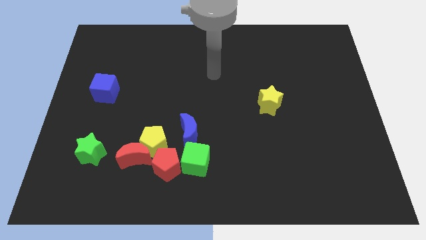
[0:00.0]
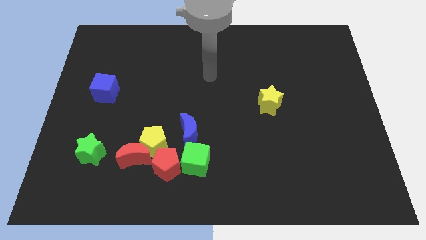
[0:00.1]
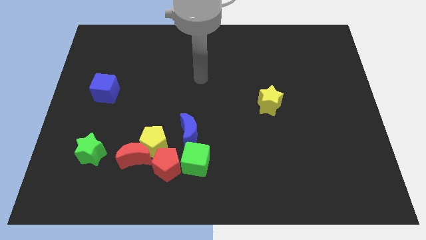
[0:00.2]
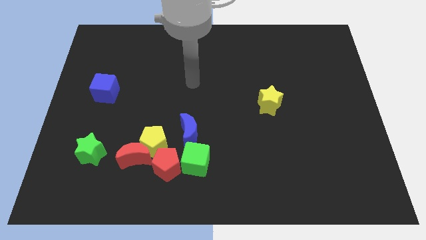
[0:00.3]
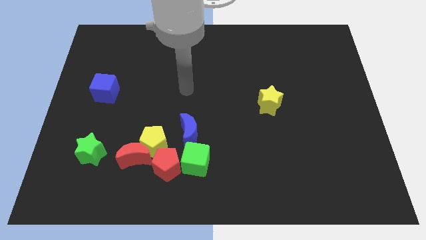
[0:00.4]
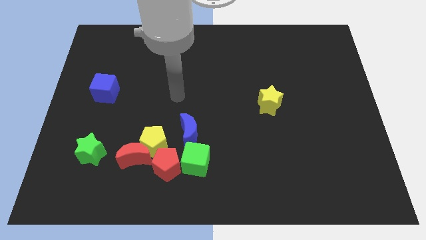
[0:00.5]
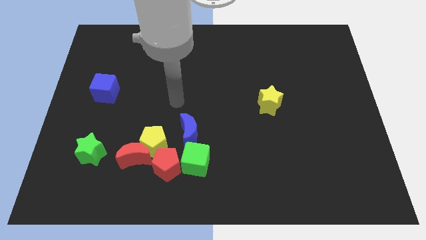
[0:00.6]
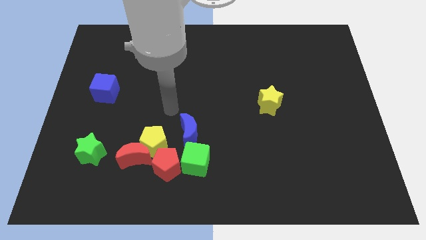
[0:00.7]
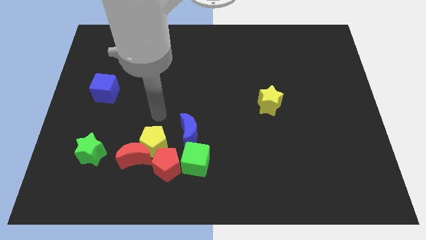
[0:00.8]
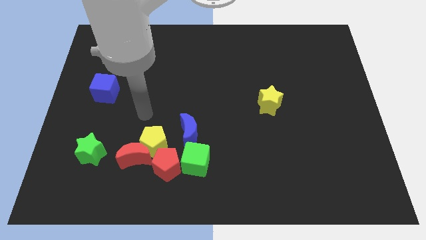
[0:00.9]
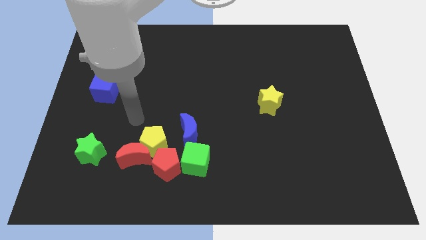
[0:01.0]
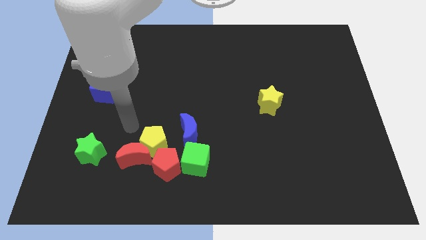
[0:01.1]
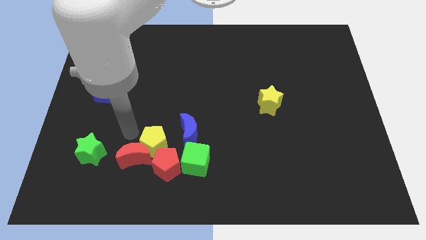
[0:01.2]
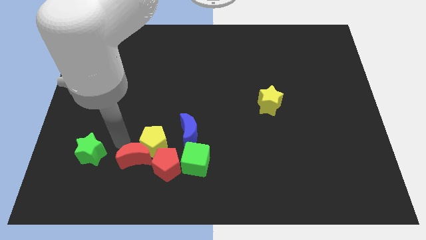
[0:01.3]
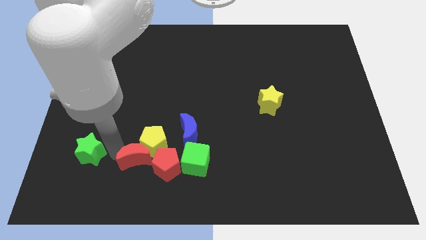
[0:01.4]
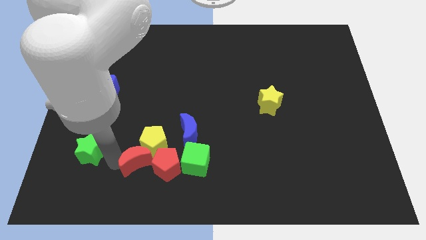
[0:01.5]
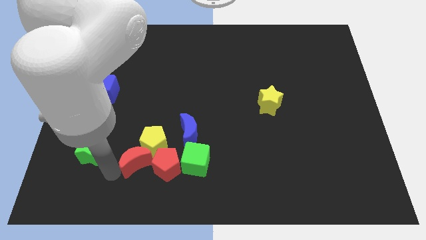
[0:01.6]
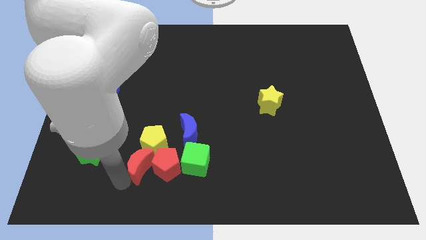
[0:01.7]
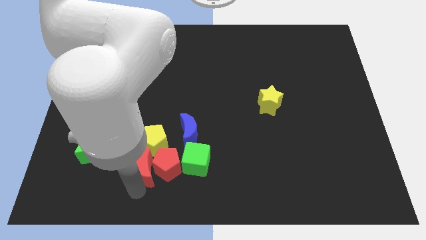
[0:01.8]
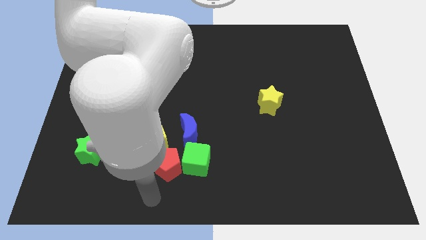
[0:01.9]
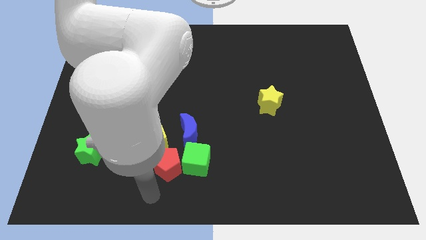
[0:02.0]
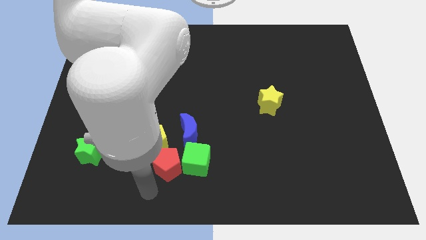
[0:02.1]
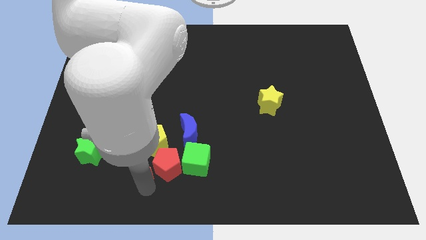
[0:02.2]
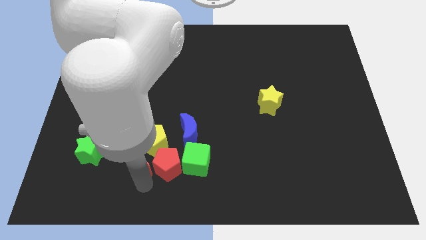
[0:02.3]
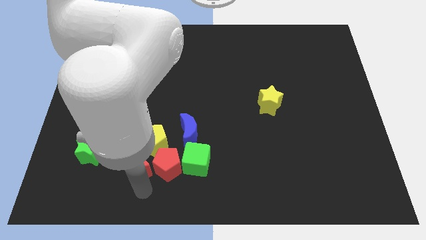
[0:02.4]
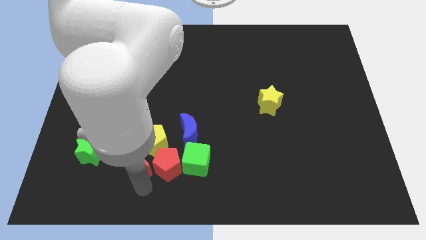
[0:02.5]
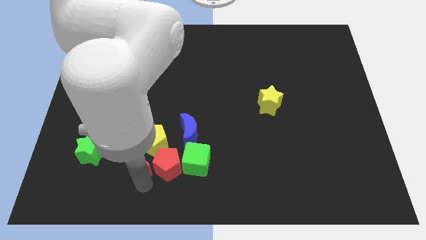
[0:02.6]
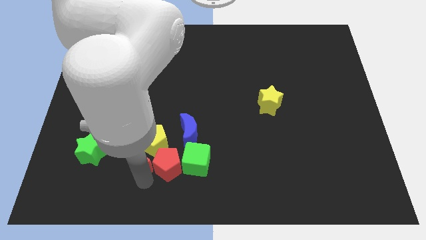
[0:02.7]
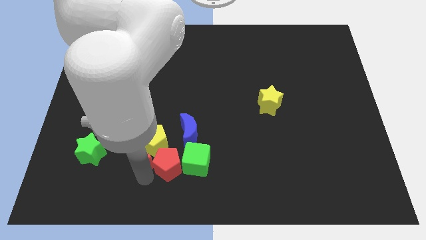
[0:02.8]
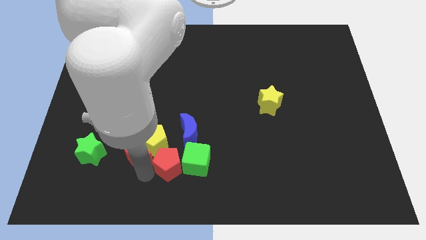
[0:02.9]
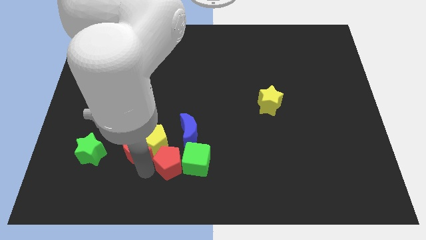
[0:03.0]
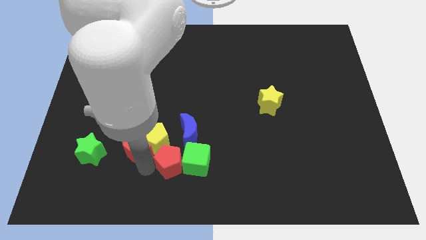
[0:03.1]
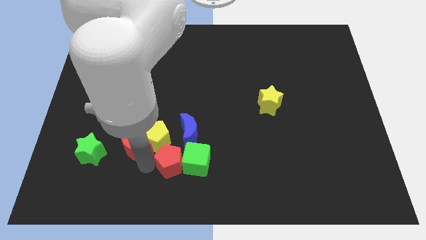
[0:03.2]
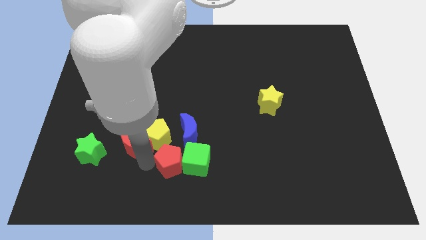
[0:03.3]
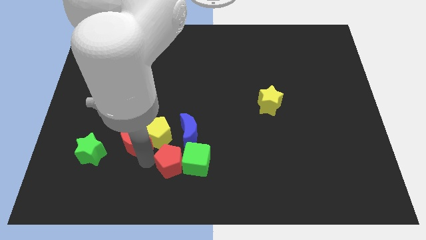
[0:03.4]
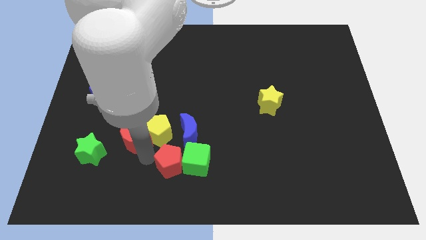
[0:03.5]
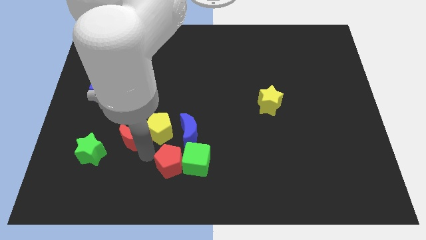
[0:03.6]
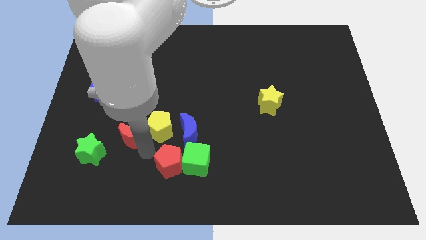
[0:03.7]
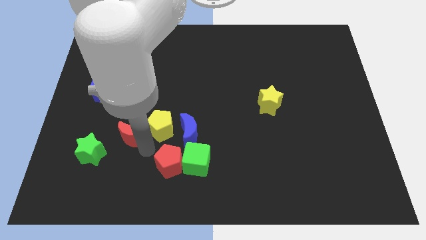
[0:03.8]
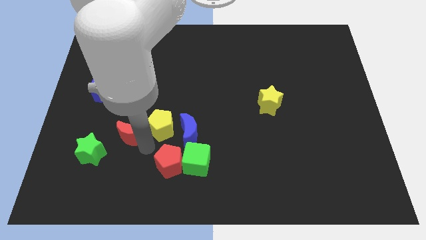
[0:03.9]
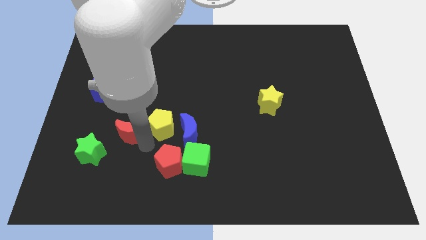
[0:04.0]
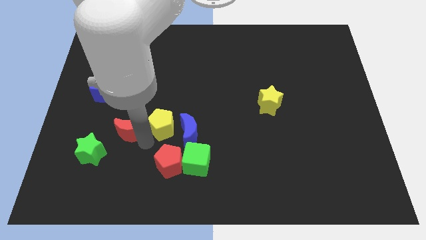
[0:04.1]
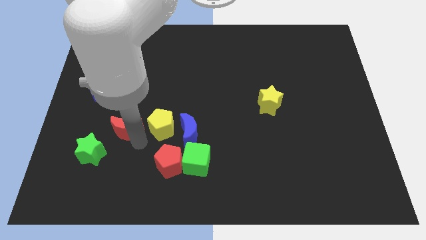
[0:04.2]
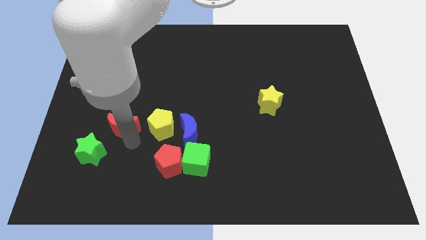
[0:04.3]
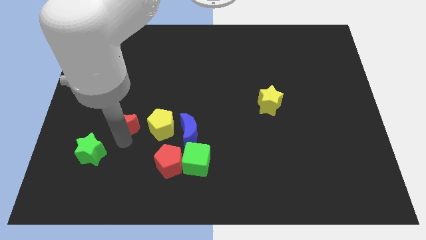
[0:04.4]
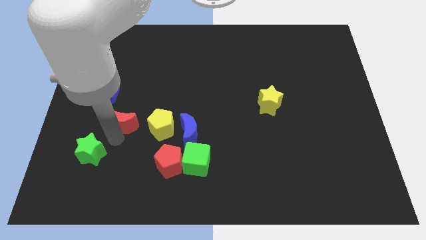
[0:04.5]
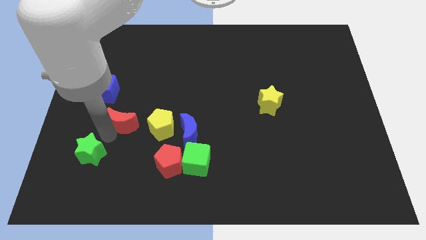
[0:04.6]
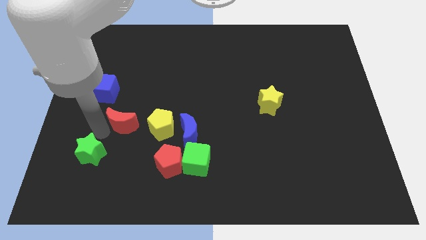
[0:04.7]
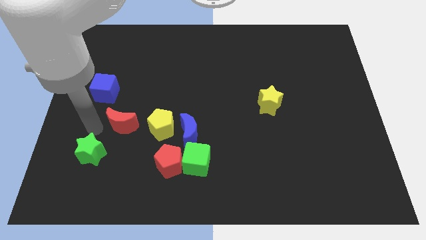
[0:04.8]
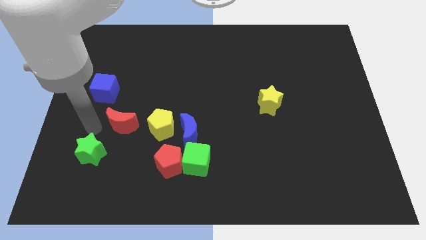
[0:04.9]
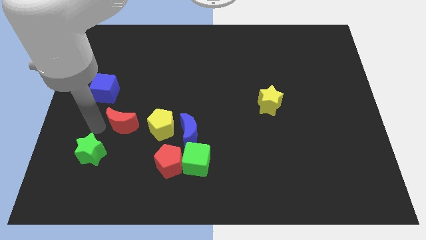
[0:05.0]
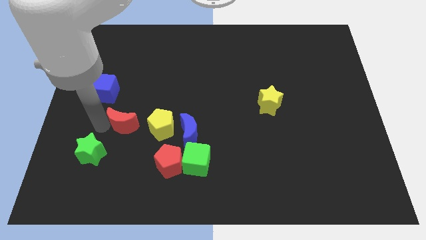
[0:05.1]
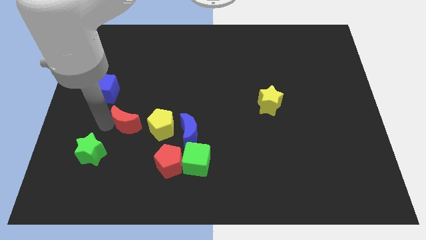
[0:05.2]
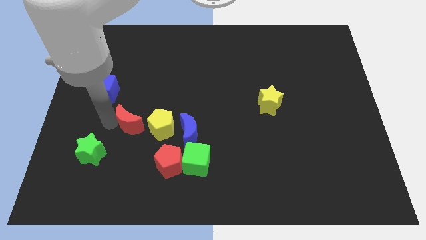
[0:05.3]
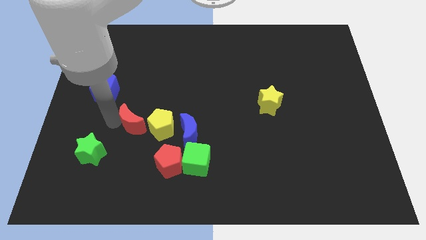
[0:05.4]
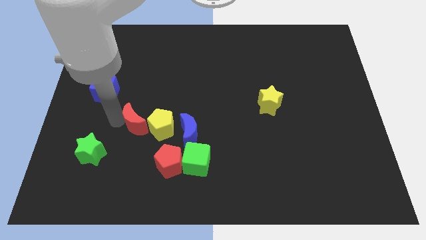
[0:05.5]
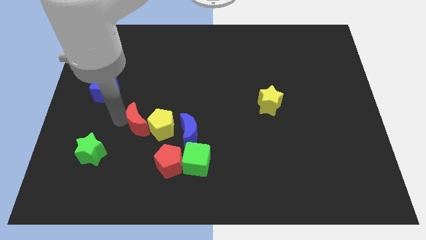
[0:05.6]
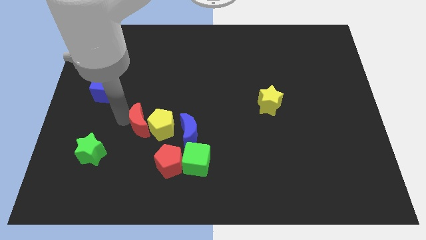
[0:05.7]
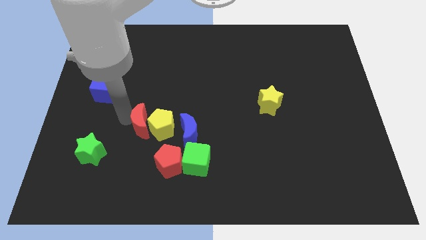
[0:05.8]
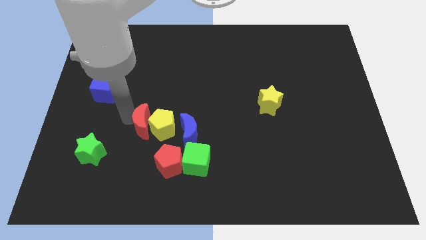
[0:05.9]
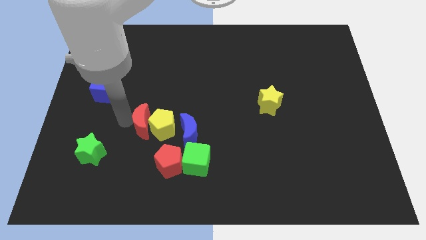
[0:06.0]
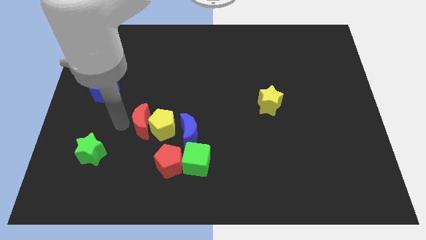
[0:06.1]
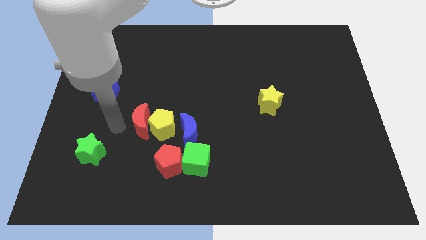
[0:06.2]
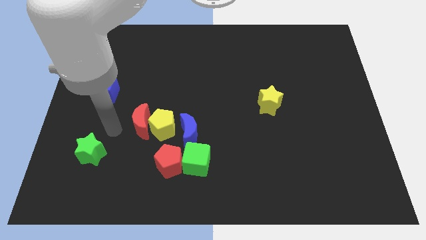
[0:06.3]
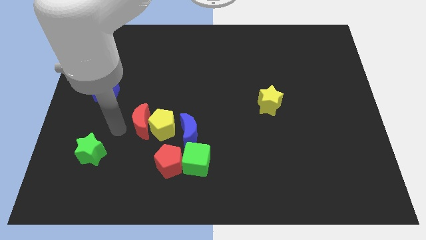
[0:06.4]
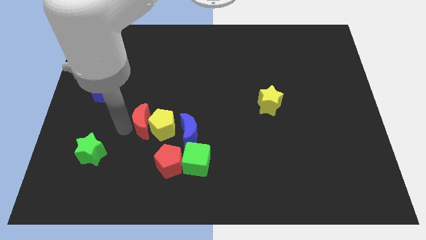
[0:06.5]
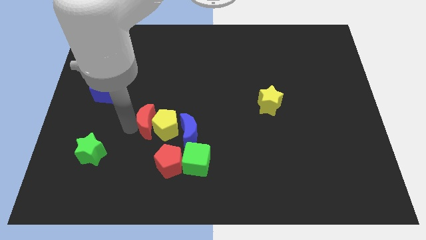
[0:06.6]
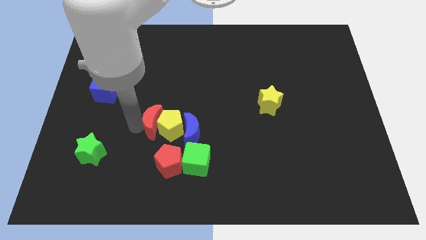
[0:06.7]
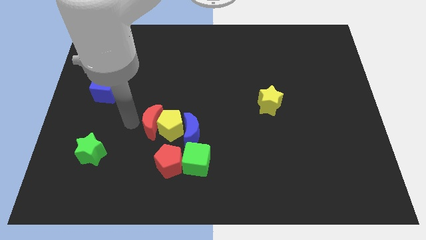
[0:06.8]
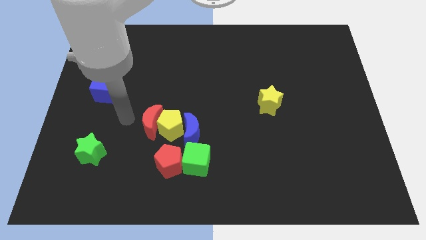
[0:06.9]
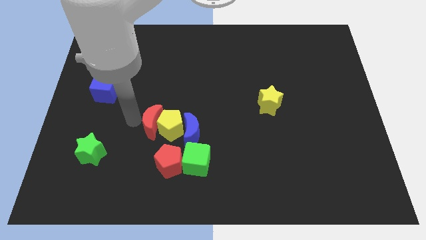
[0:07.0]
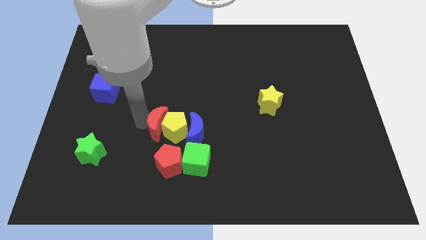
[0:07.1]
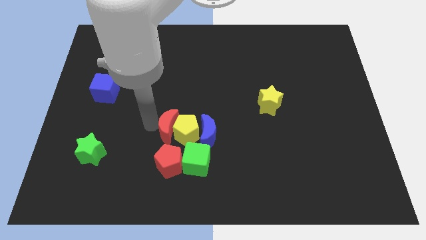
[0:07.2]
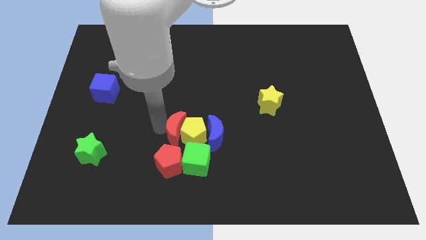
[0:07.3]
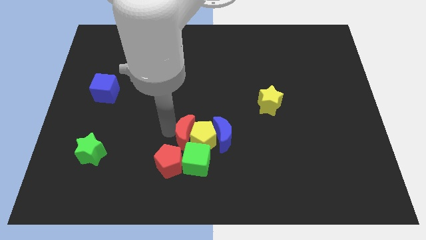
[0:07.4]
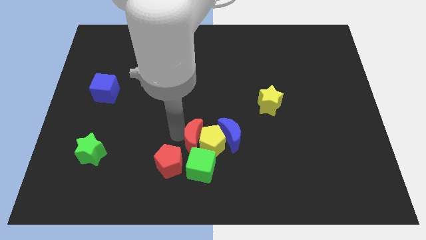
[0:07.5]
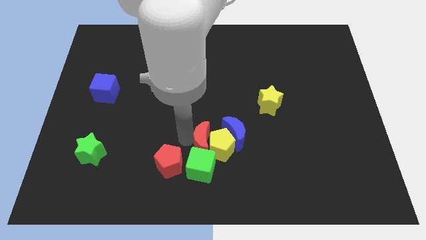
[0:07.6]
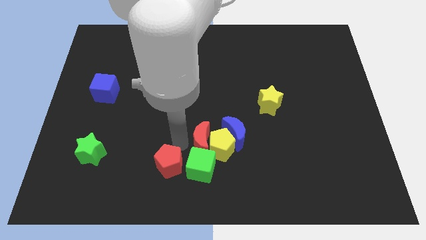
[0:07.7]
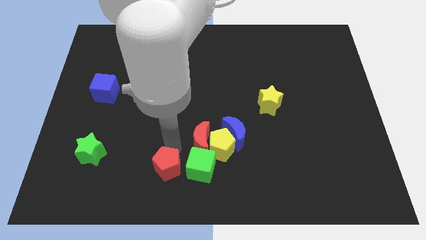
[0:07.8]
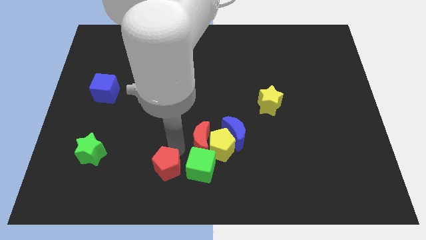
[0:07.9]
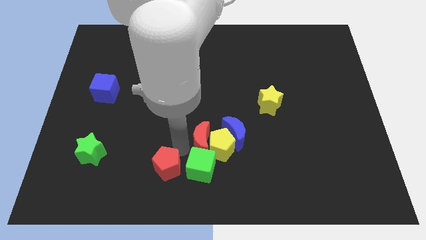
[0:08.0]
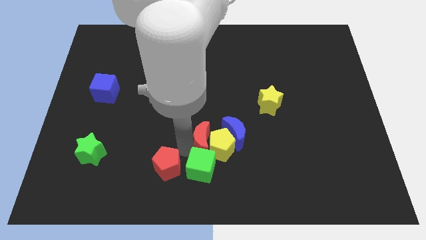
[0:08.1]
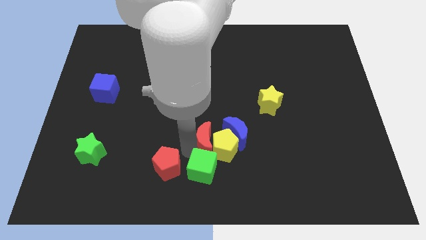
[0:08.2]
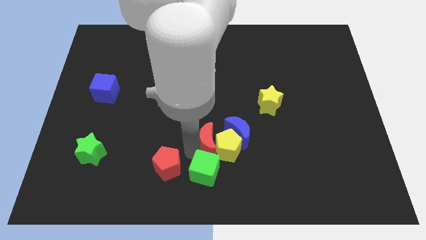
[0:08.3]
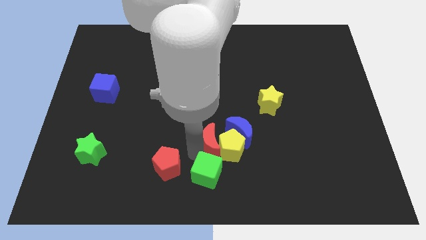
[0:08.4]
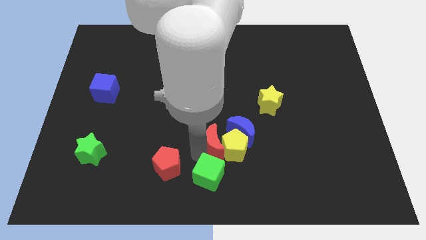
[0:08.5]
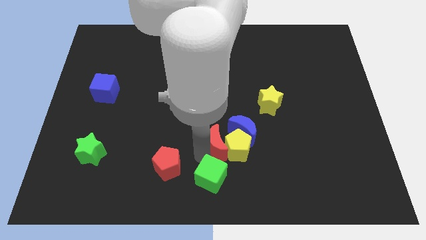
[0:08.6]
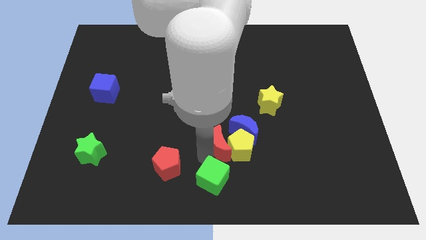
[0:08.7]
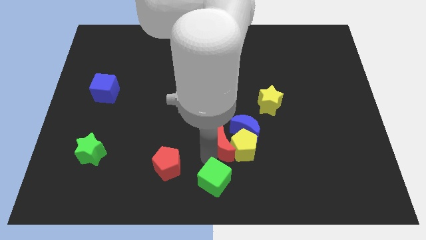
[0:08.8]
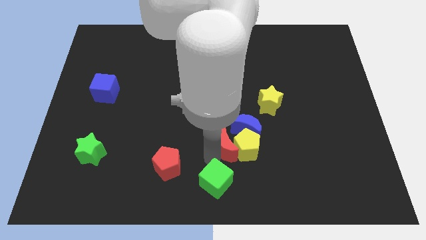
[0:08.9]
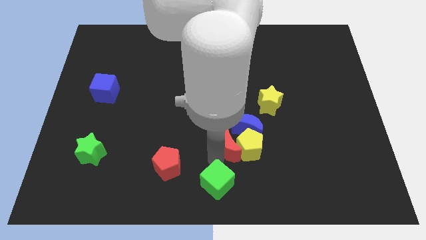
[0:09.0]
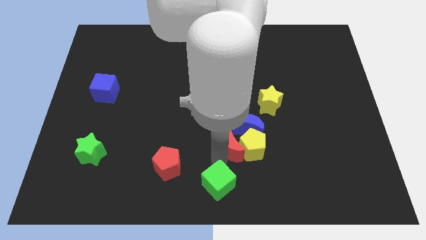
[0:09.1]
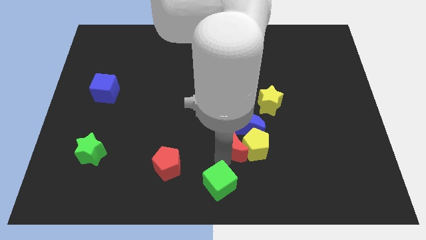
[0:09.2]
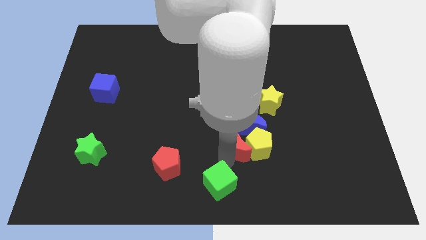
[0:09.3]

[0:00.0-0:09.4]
put the red moon close to the blue moon
